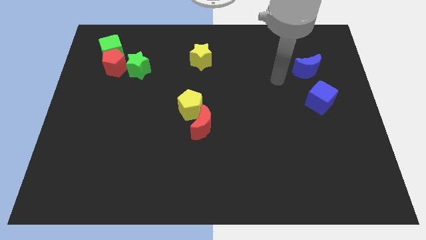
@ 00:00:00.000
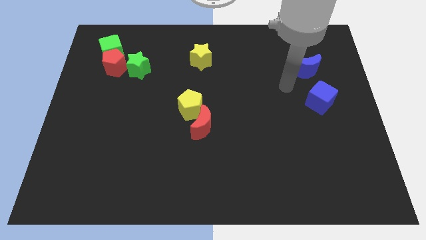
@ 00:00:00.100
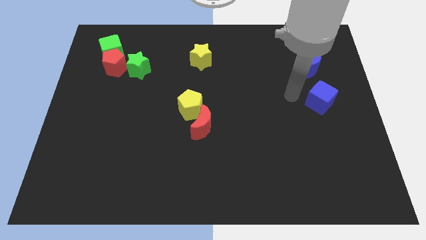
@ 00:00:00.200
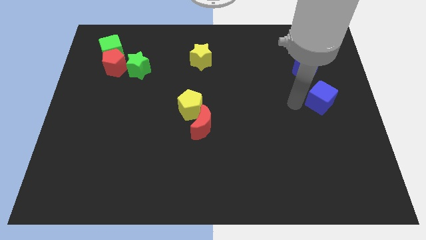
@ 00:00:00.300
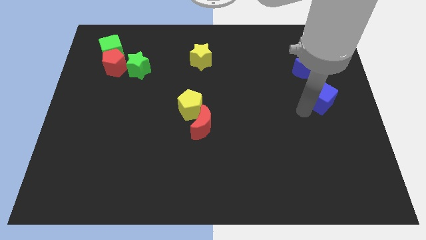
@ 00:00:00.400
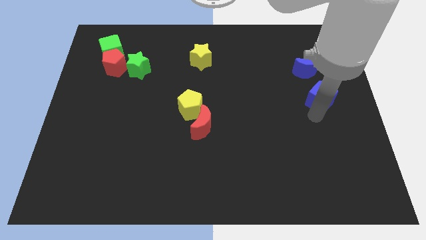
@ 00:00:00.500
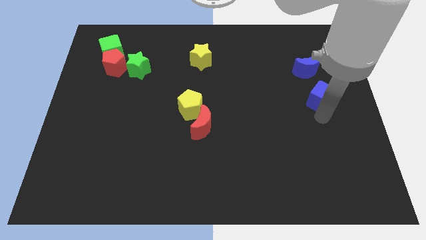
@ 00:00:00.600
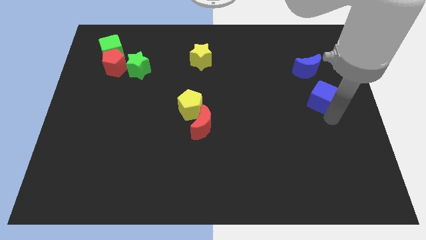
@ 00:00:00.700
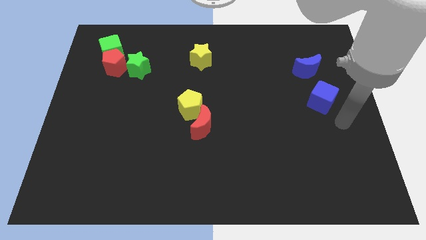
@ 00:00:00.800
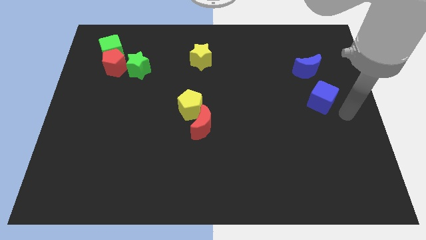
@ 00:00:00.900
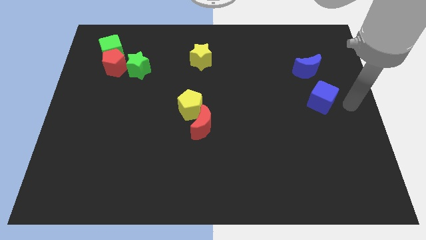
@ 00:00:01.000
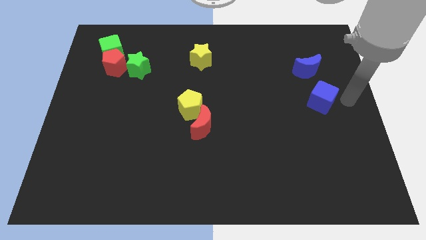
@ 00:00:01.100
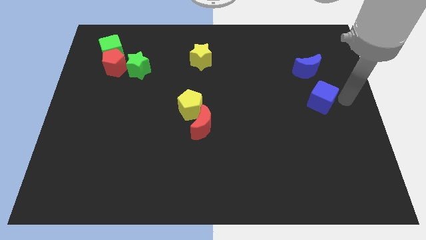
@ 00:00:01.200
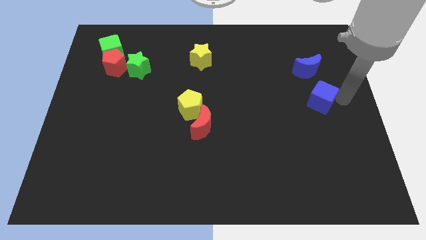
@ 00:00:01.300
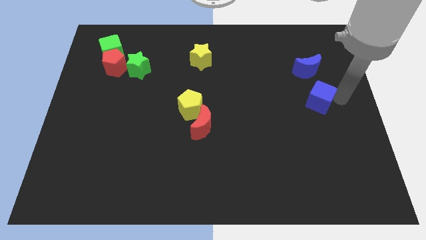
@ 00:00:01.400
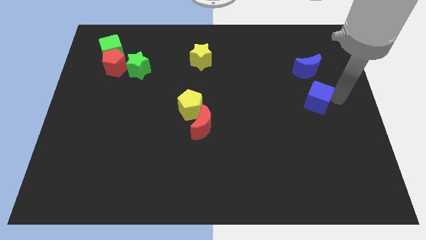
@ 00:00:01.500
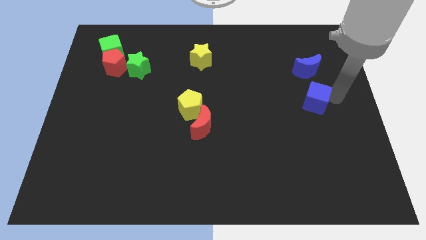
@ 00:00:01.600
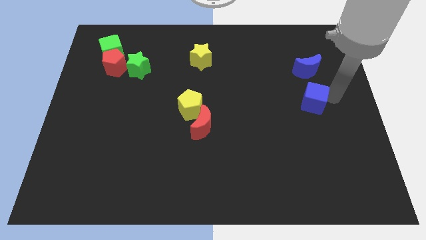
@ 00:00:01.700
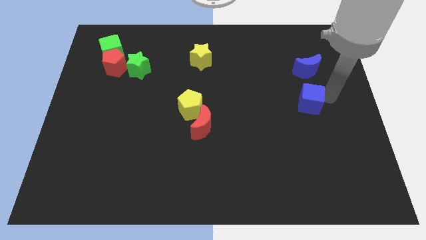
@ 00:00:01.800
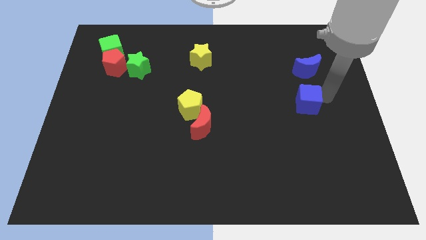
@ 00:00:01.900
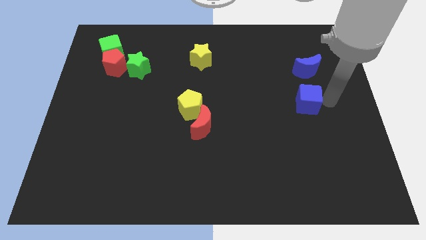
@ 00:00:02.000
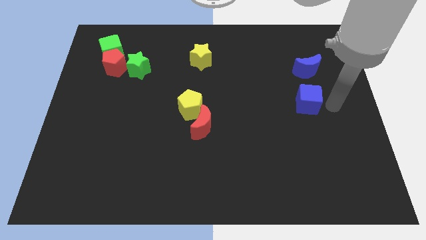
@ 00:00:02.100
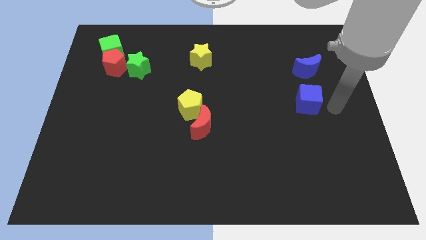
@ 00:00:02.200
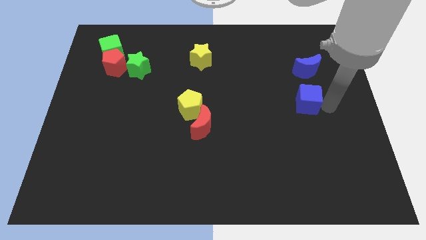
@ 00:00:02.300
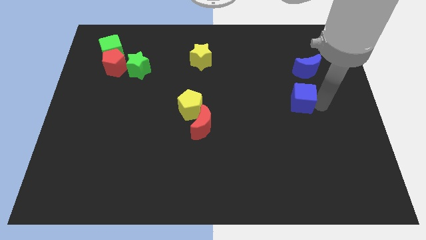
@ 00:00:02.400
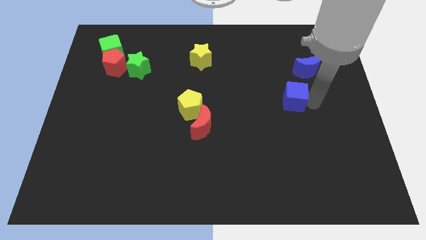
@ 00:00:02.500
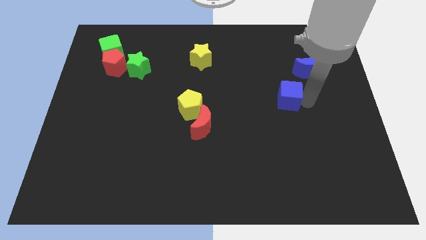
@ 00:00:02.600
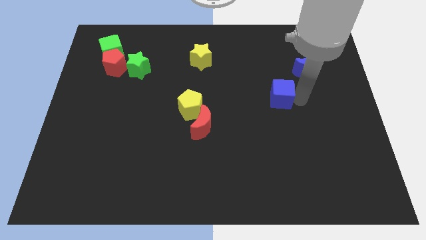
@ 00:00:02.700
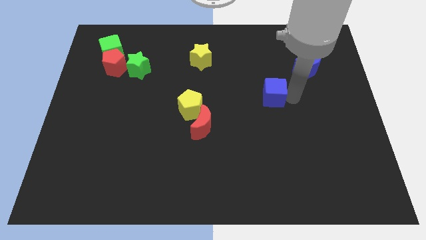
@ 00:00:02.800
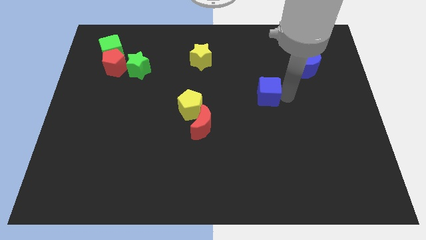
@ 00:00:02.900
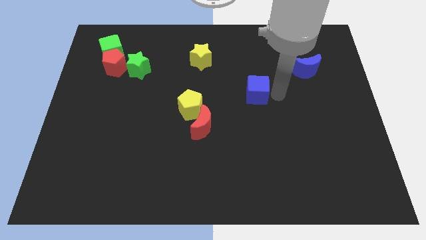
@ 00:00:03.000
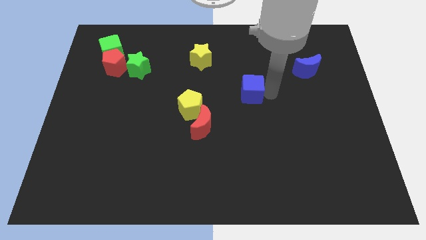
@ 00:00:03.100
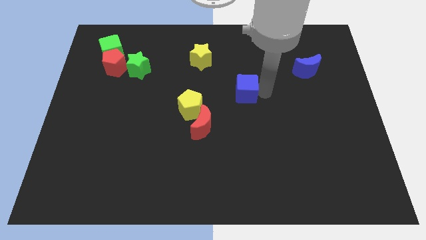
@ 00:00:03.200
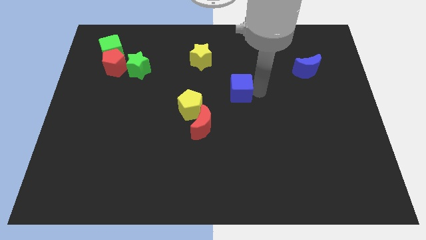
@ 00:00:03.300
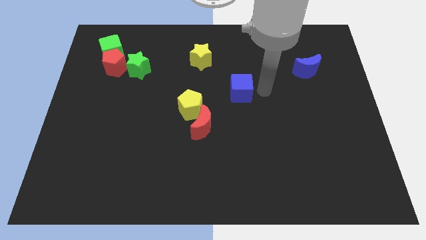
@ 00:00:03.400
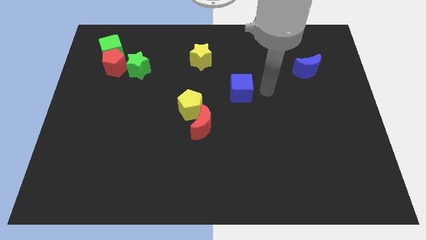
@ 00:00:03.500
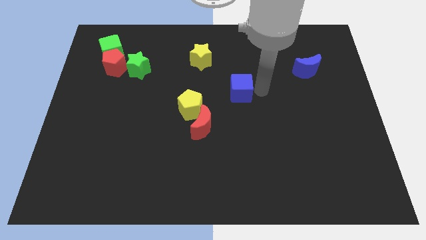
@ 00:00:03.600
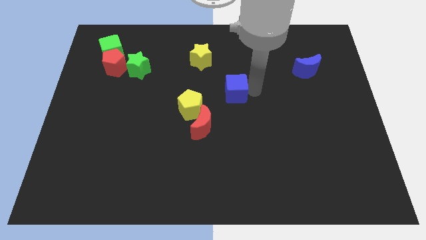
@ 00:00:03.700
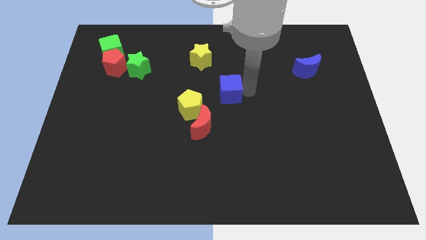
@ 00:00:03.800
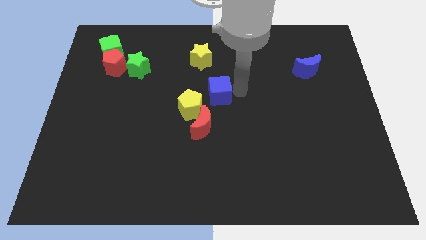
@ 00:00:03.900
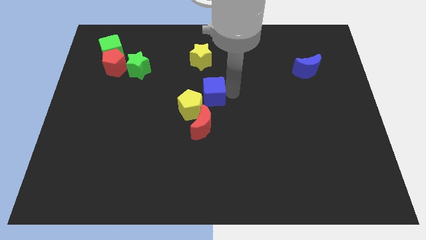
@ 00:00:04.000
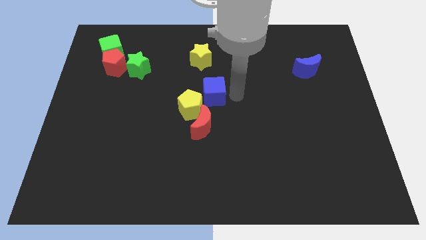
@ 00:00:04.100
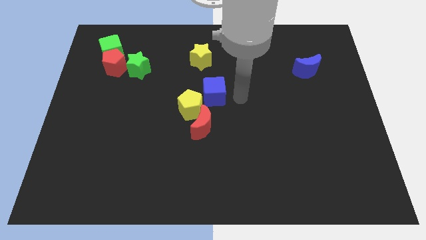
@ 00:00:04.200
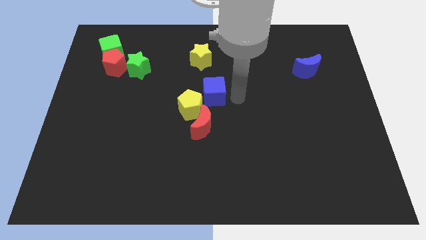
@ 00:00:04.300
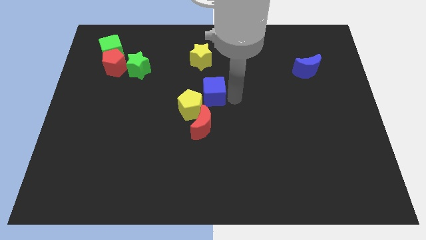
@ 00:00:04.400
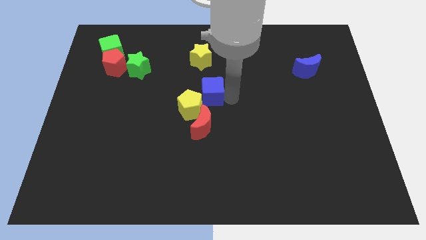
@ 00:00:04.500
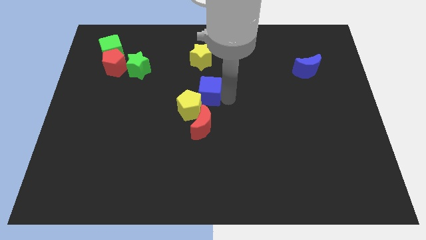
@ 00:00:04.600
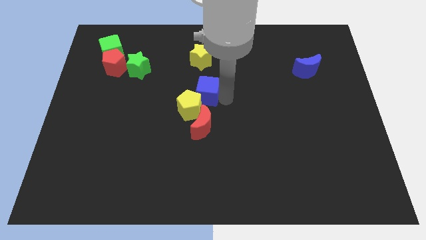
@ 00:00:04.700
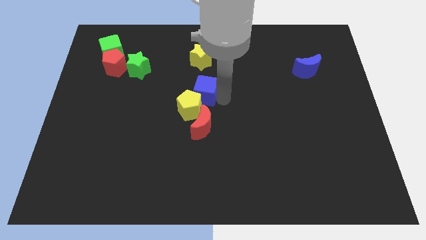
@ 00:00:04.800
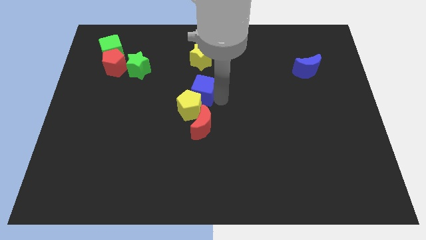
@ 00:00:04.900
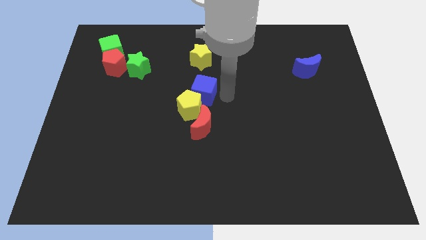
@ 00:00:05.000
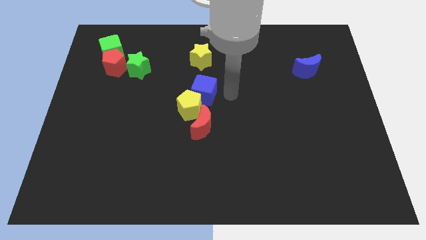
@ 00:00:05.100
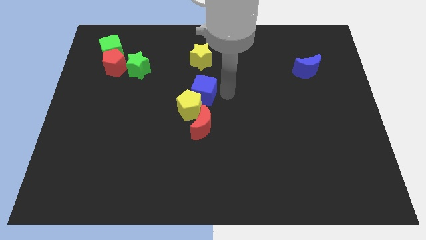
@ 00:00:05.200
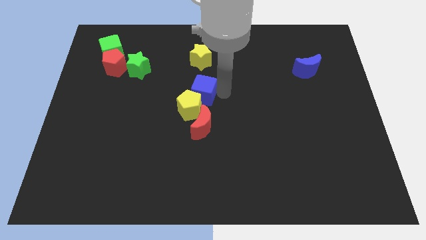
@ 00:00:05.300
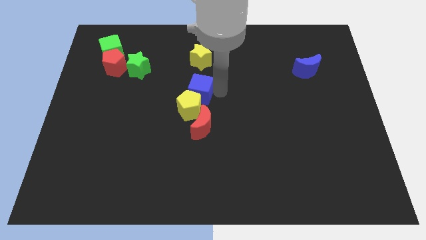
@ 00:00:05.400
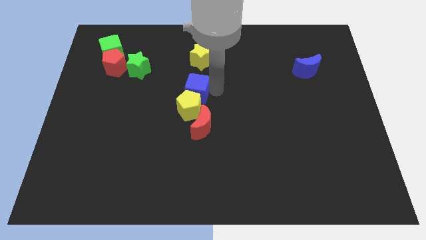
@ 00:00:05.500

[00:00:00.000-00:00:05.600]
push the blue cube to the top left side of the yellow pentagon

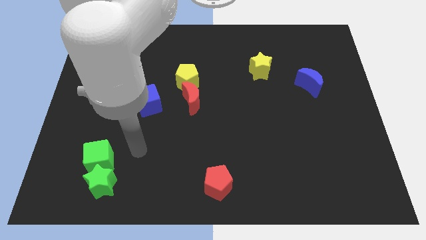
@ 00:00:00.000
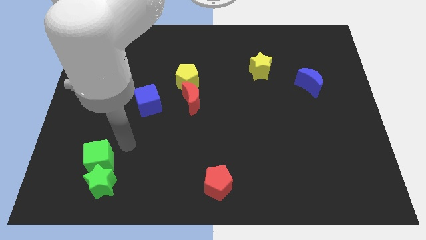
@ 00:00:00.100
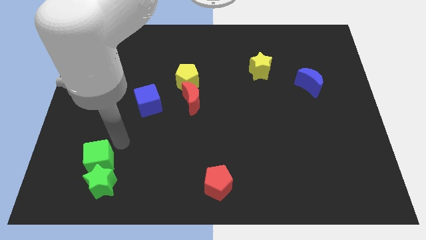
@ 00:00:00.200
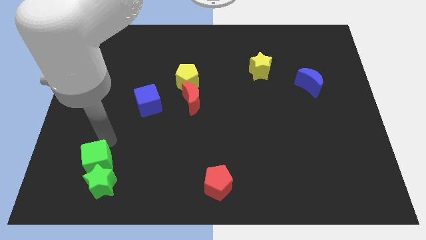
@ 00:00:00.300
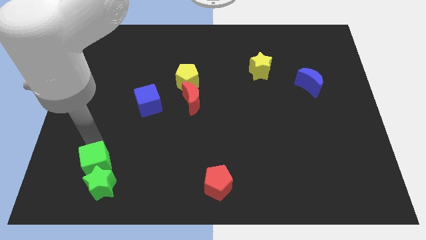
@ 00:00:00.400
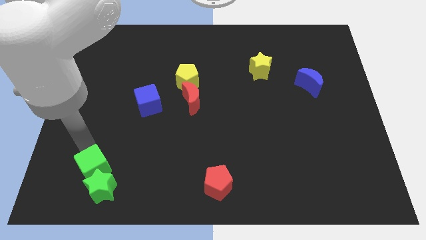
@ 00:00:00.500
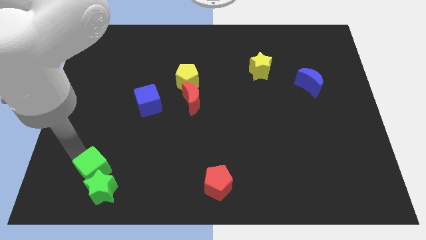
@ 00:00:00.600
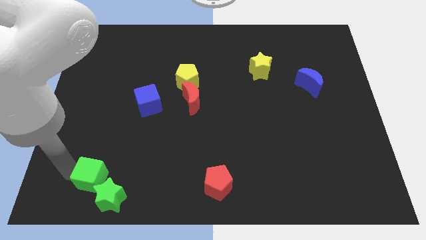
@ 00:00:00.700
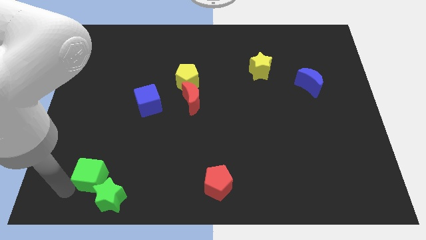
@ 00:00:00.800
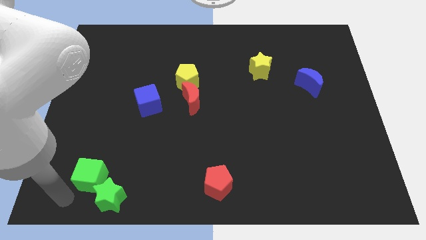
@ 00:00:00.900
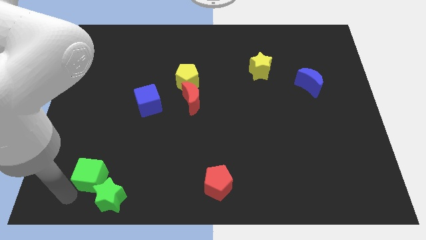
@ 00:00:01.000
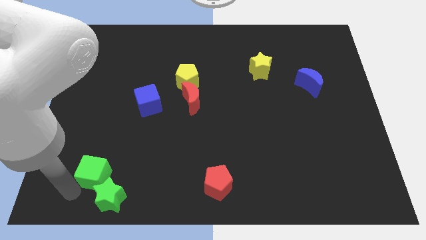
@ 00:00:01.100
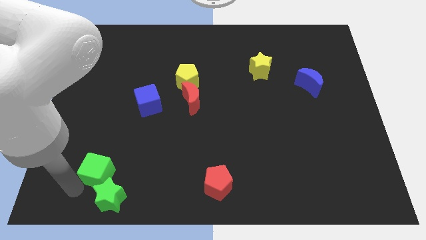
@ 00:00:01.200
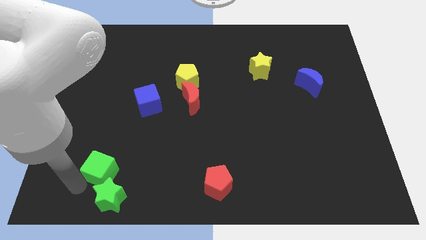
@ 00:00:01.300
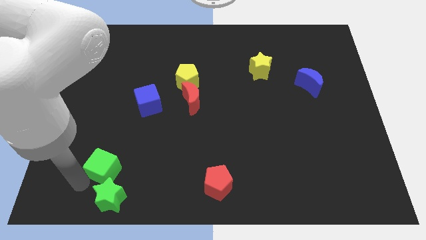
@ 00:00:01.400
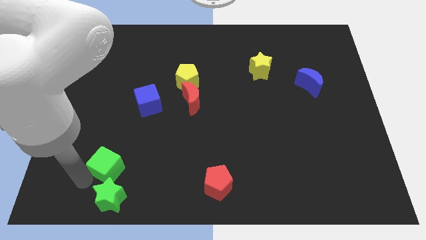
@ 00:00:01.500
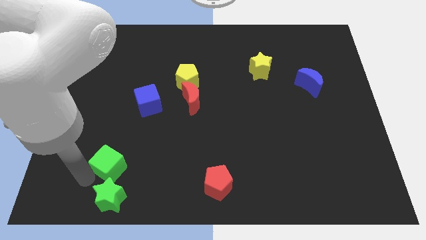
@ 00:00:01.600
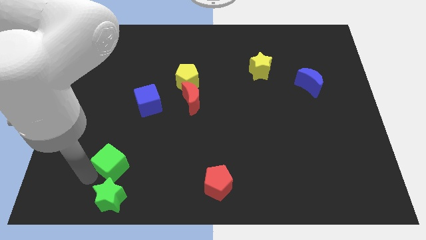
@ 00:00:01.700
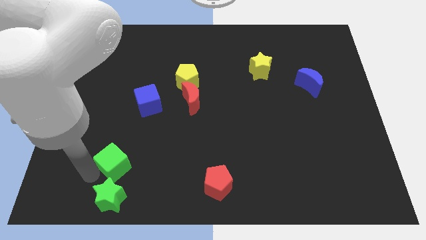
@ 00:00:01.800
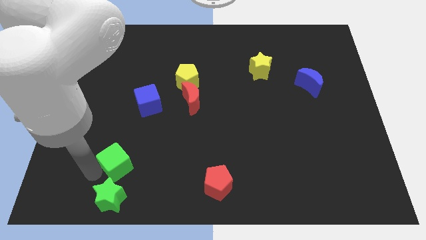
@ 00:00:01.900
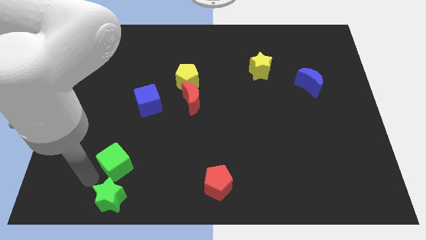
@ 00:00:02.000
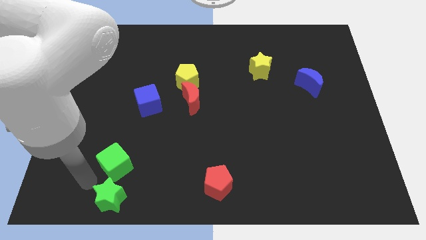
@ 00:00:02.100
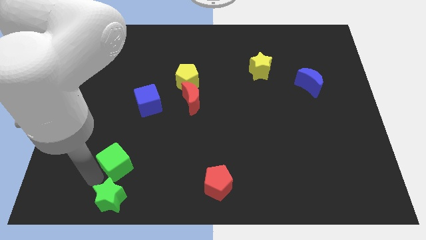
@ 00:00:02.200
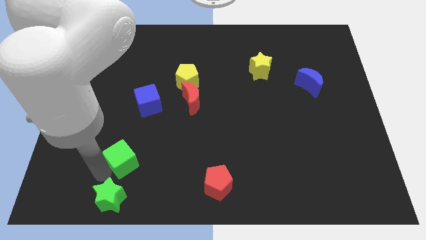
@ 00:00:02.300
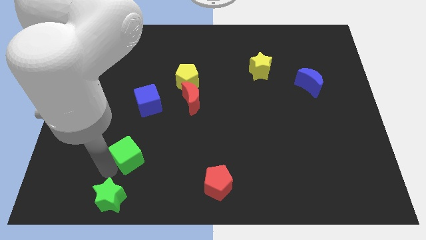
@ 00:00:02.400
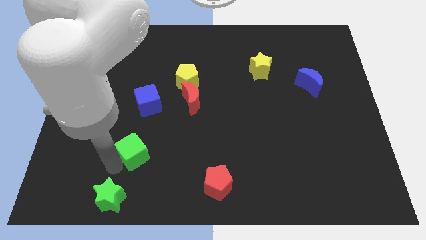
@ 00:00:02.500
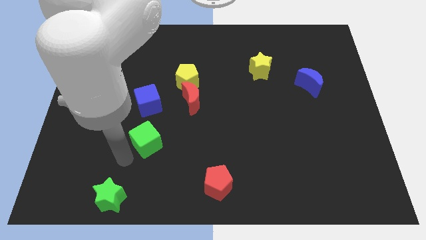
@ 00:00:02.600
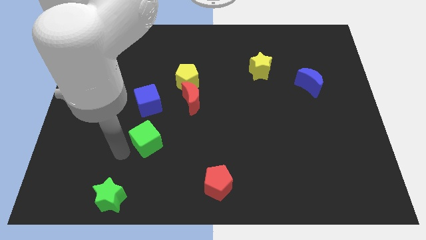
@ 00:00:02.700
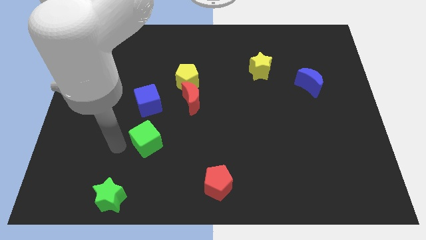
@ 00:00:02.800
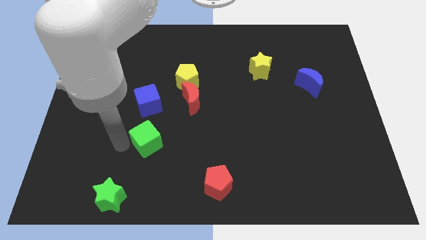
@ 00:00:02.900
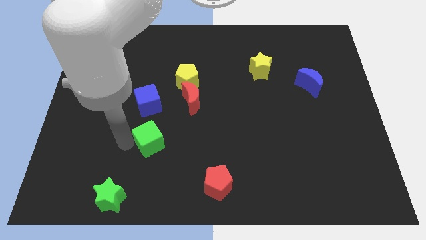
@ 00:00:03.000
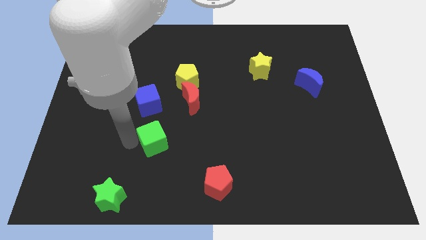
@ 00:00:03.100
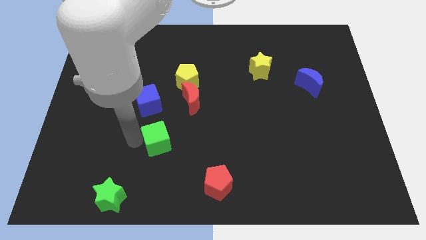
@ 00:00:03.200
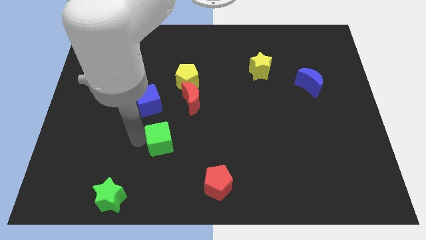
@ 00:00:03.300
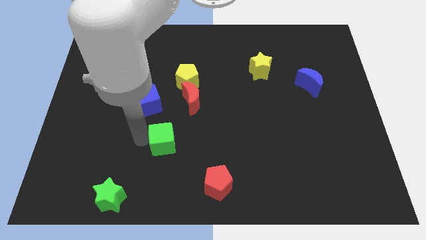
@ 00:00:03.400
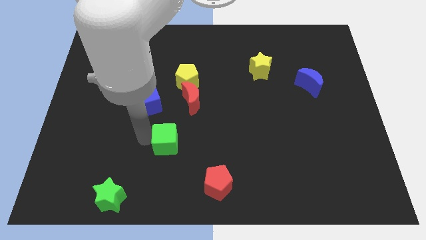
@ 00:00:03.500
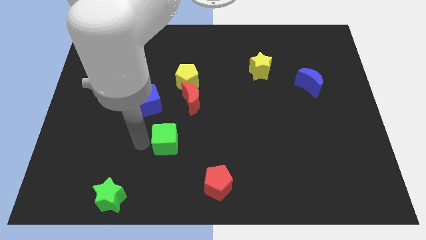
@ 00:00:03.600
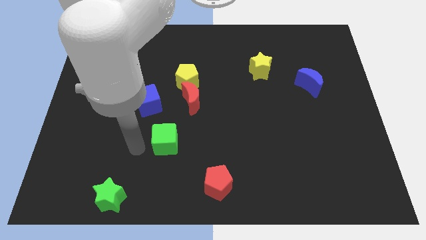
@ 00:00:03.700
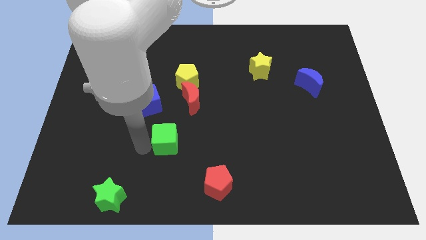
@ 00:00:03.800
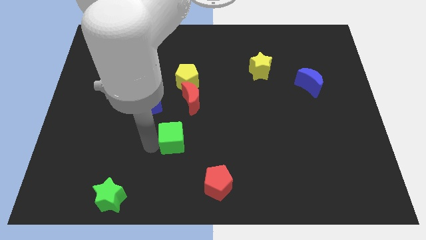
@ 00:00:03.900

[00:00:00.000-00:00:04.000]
push the green cube to the bottom side of the red moon
